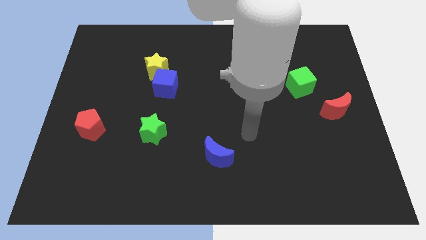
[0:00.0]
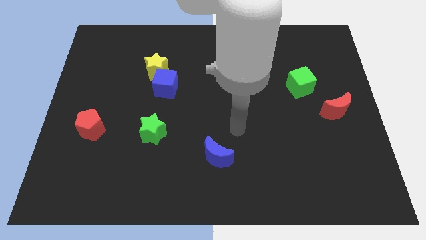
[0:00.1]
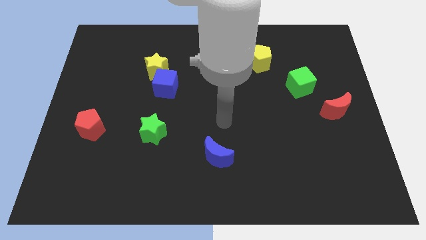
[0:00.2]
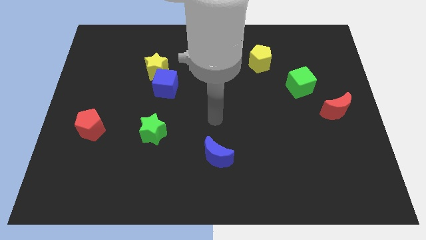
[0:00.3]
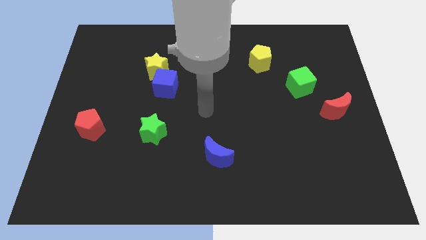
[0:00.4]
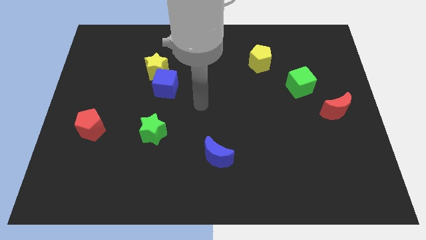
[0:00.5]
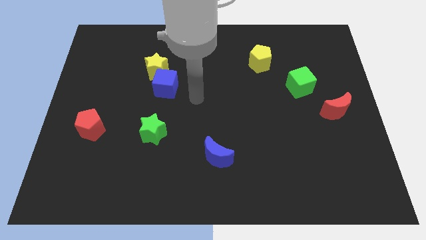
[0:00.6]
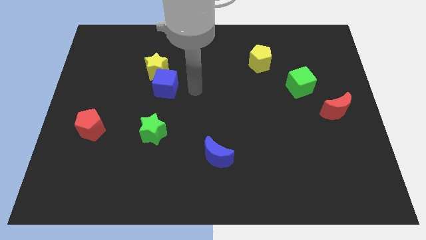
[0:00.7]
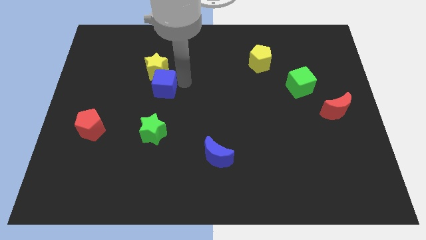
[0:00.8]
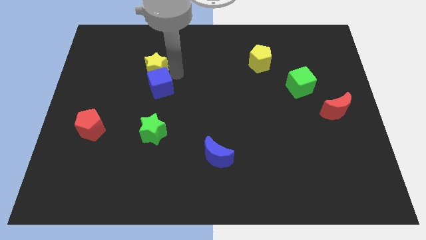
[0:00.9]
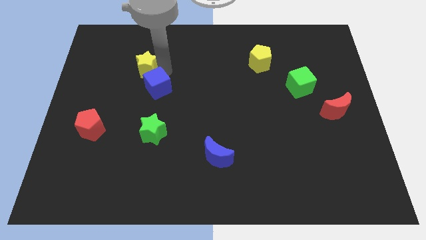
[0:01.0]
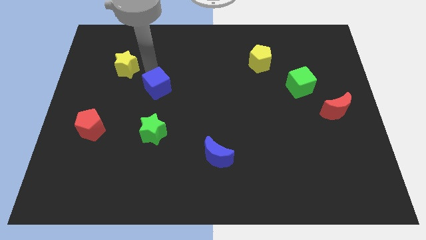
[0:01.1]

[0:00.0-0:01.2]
pull the blue cube apart from the yellow star

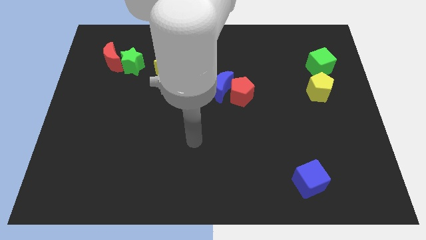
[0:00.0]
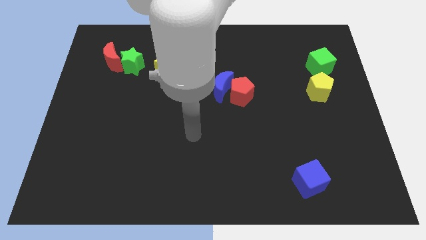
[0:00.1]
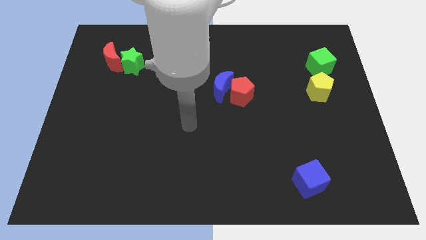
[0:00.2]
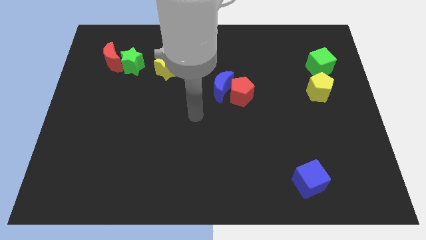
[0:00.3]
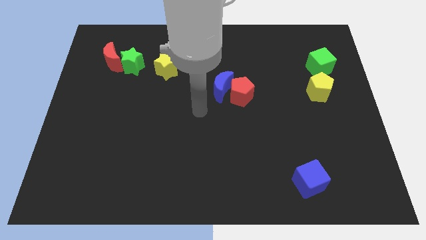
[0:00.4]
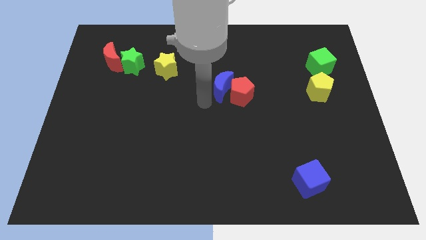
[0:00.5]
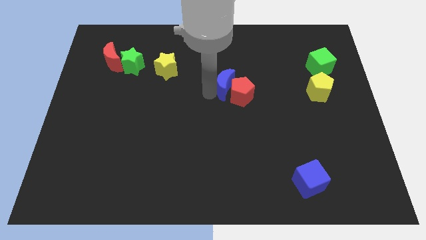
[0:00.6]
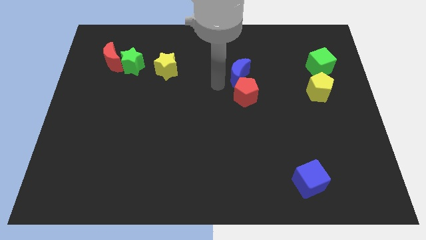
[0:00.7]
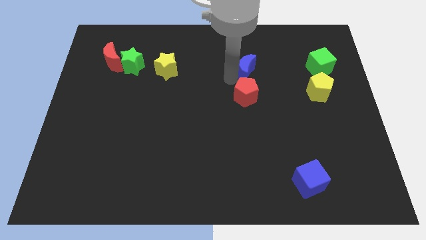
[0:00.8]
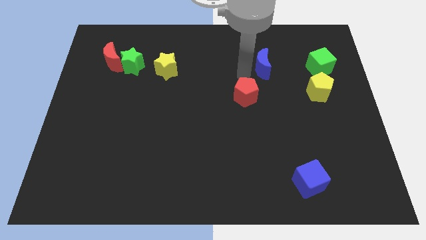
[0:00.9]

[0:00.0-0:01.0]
move the red pentagon away from the blue moon

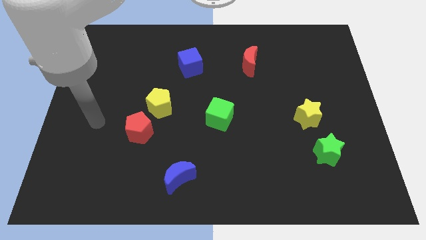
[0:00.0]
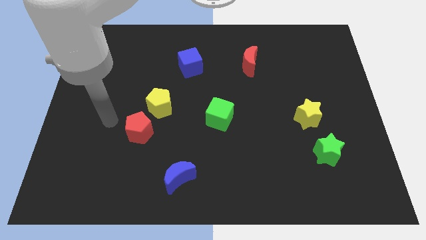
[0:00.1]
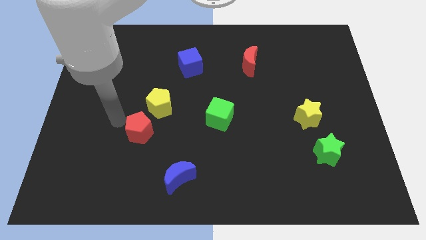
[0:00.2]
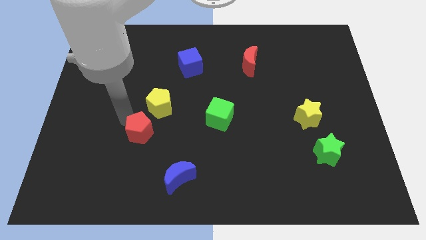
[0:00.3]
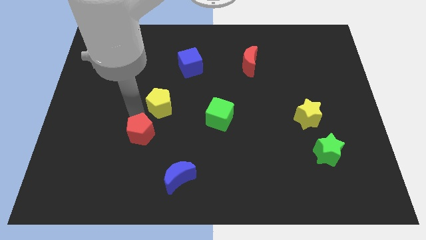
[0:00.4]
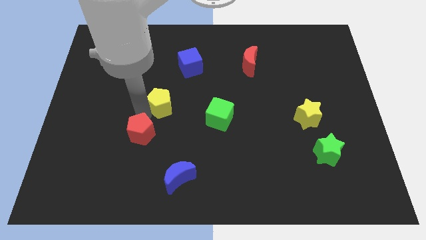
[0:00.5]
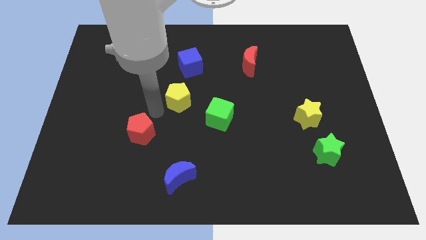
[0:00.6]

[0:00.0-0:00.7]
separate the red pentagon from the yellow pentagon

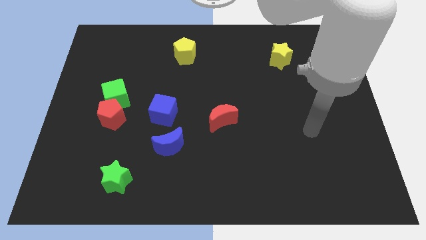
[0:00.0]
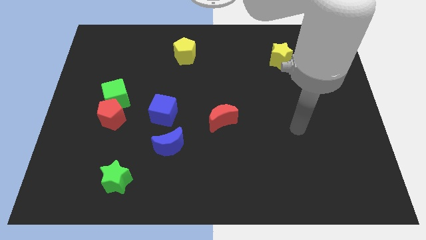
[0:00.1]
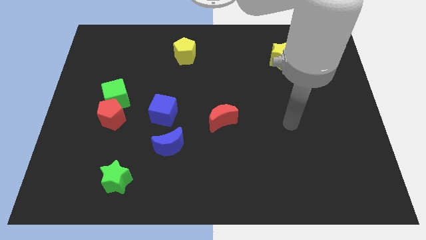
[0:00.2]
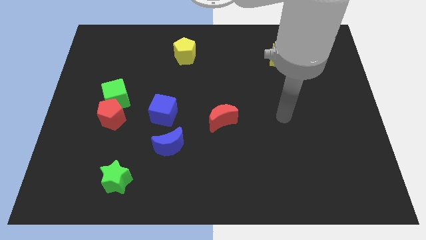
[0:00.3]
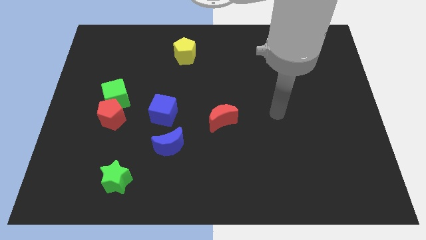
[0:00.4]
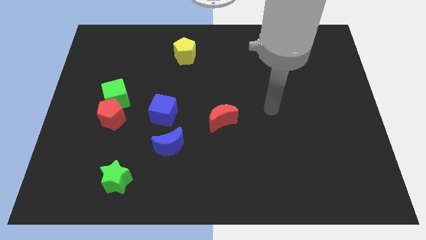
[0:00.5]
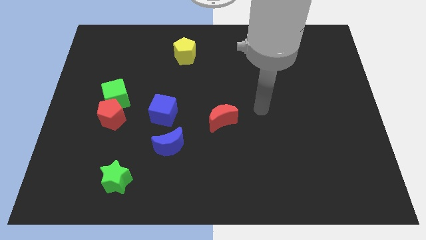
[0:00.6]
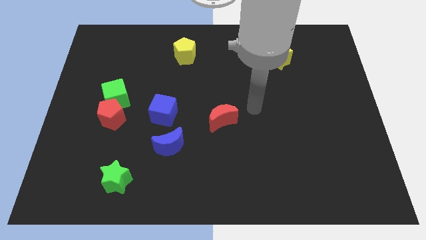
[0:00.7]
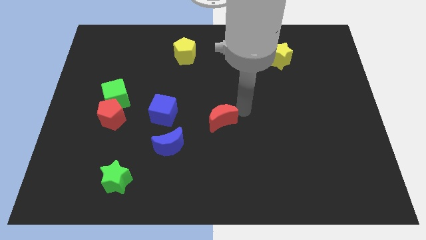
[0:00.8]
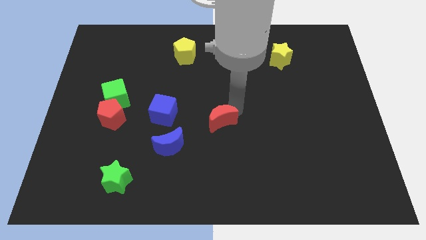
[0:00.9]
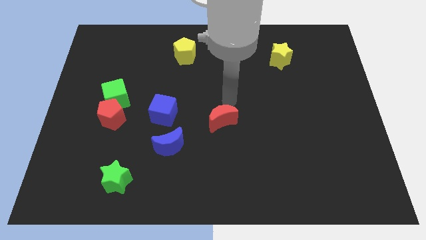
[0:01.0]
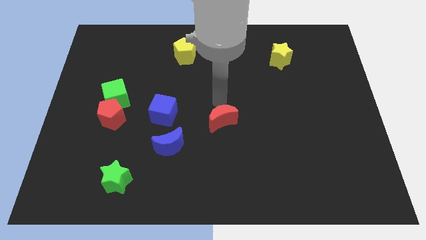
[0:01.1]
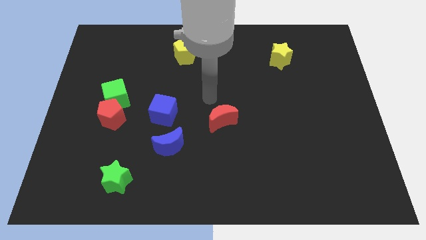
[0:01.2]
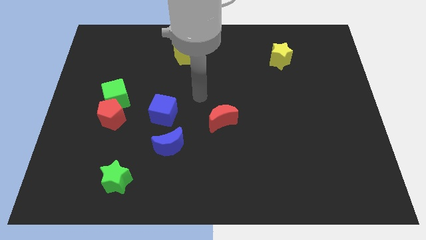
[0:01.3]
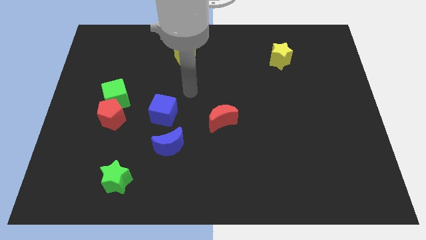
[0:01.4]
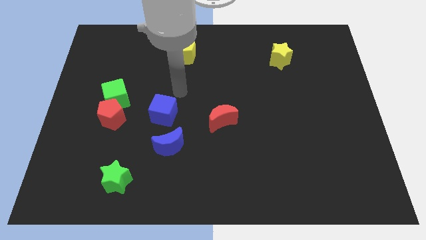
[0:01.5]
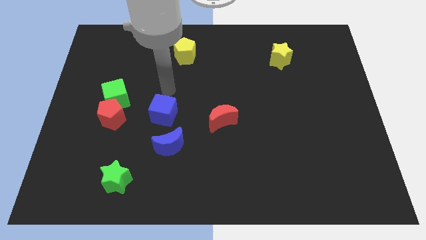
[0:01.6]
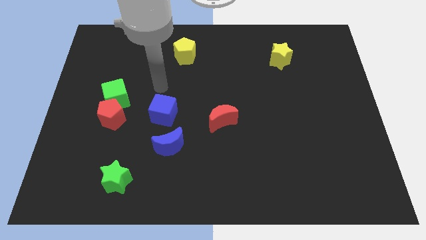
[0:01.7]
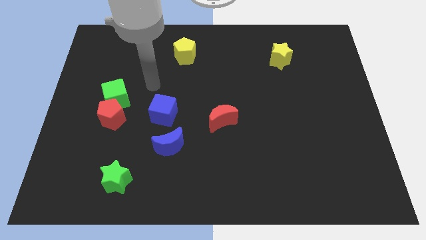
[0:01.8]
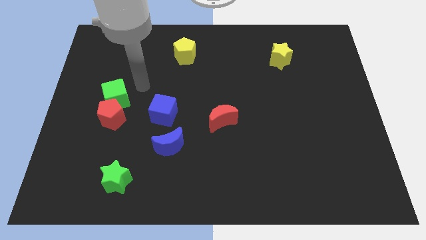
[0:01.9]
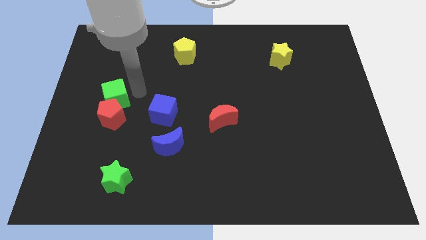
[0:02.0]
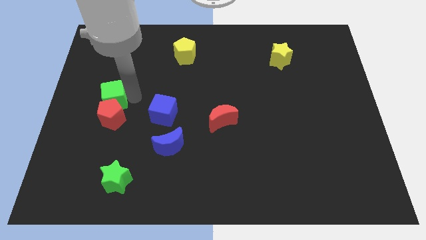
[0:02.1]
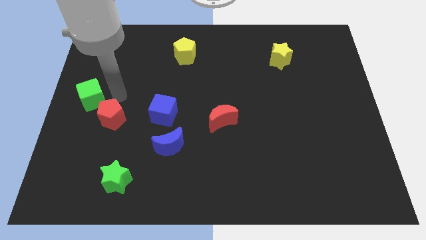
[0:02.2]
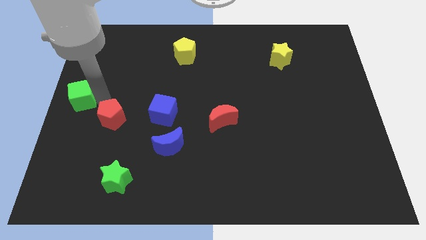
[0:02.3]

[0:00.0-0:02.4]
pull the red pentagon apart from the green cube

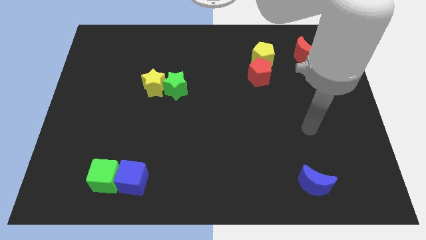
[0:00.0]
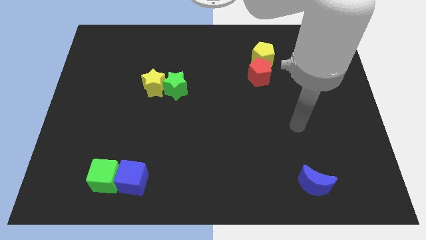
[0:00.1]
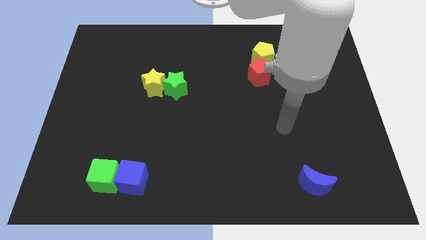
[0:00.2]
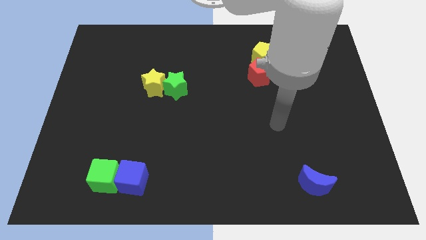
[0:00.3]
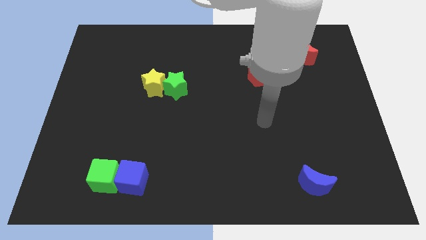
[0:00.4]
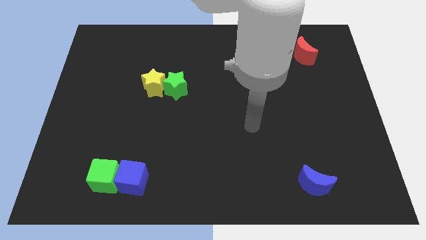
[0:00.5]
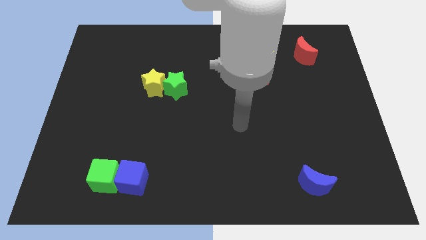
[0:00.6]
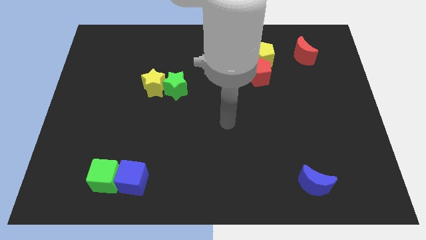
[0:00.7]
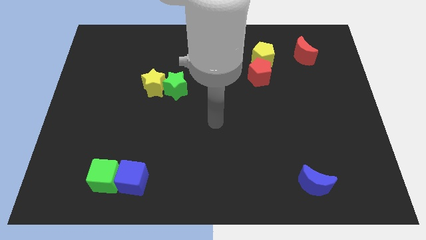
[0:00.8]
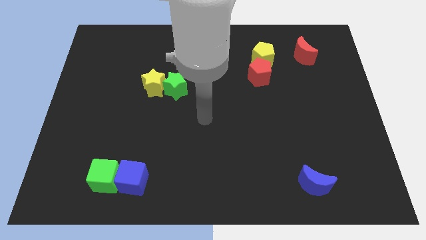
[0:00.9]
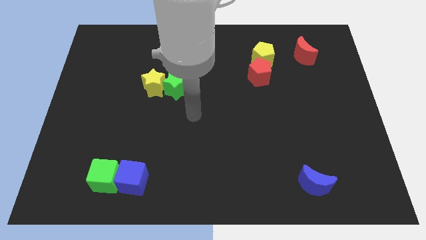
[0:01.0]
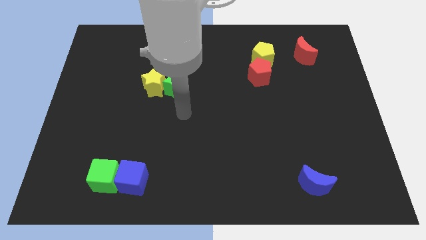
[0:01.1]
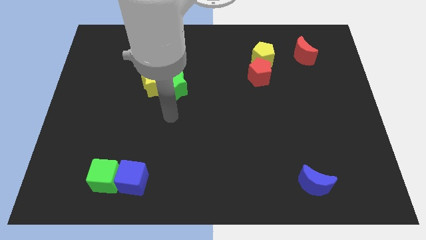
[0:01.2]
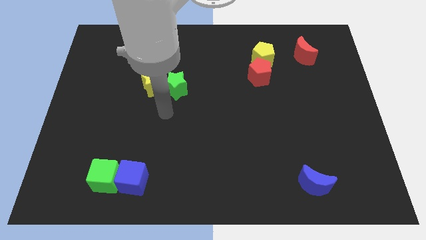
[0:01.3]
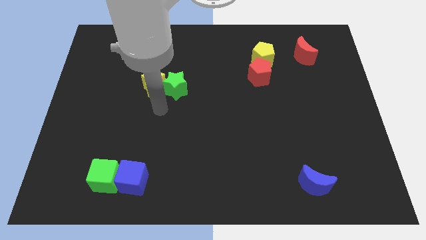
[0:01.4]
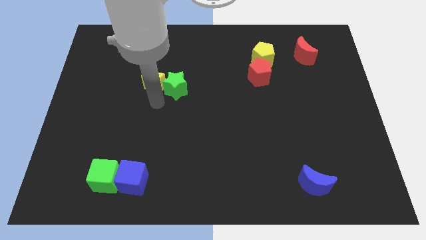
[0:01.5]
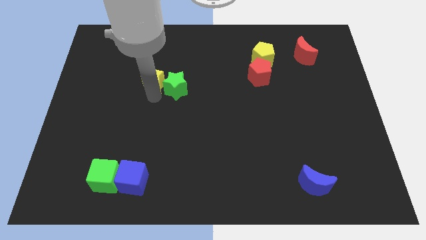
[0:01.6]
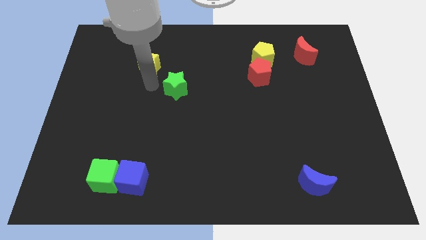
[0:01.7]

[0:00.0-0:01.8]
separate the green star from the yellow star

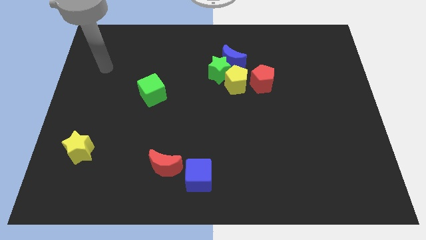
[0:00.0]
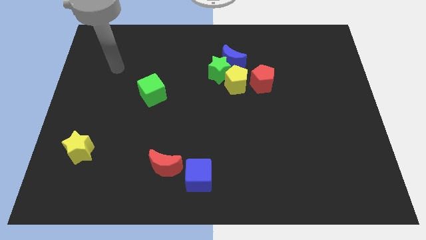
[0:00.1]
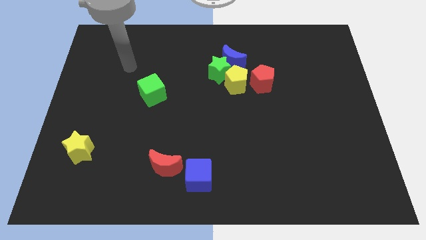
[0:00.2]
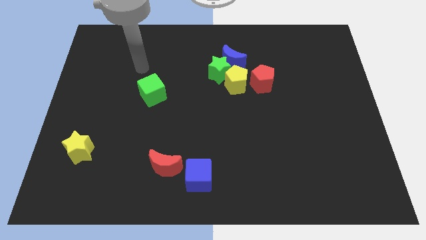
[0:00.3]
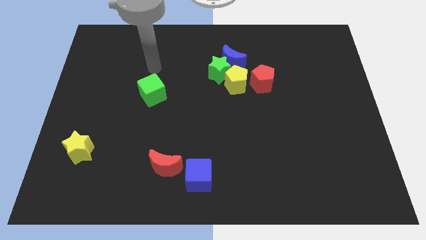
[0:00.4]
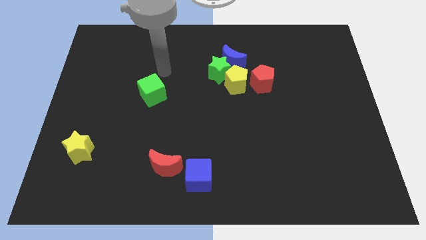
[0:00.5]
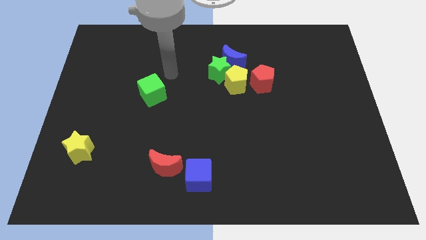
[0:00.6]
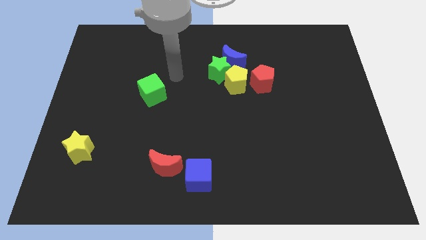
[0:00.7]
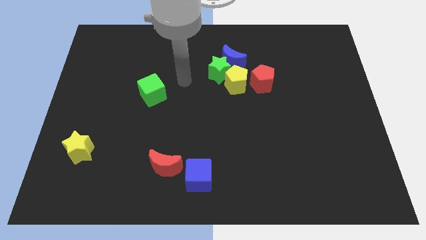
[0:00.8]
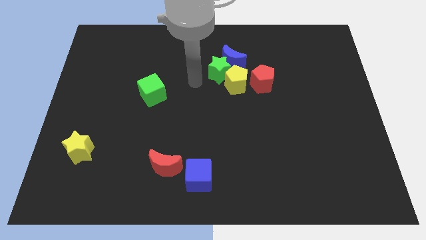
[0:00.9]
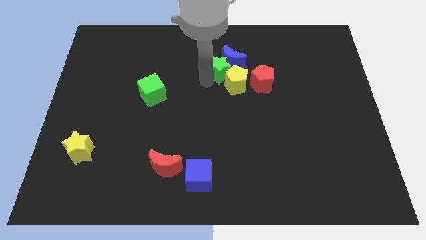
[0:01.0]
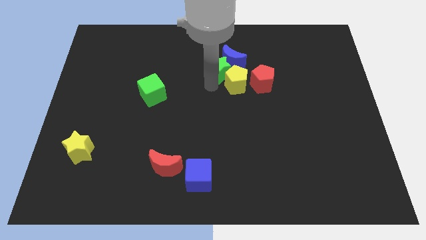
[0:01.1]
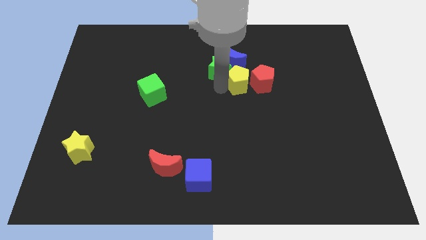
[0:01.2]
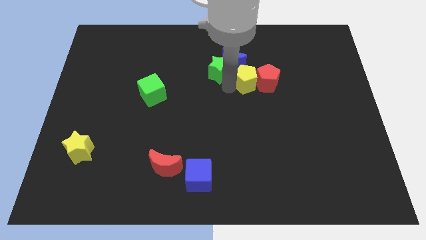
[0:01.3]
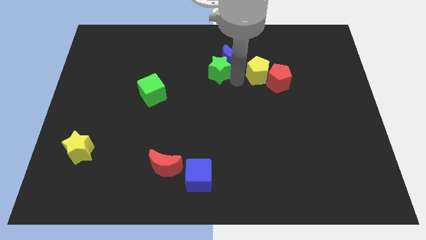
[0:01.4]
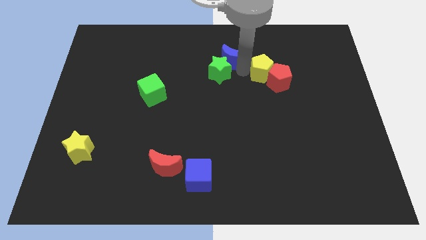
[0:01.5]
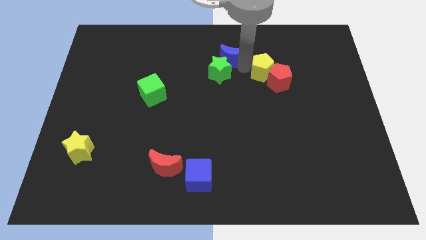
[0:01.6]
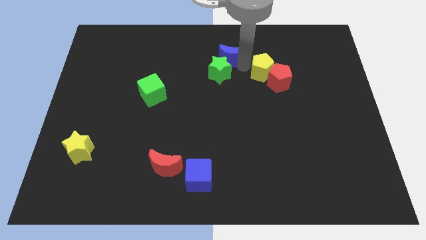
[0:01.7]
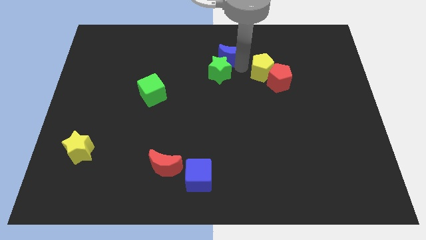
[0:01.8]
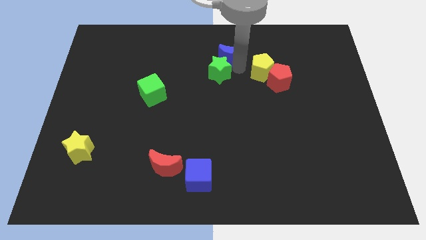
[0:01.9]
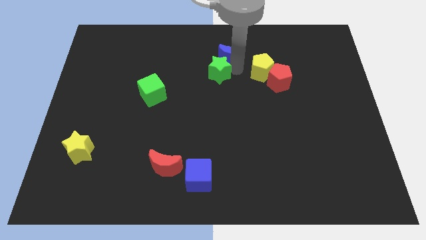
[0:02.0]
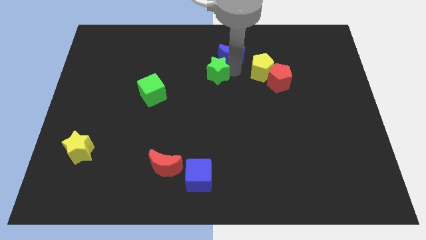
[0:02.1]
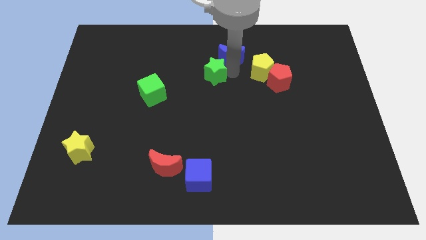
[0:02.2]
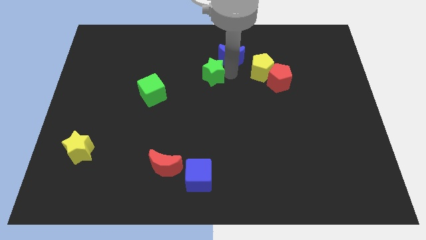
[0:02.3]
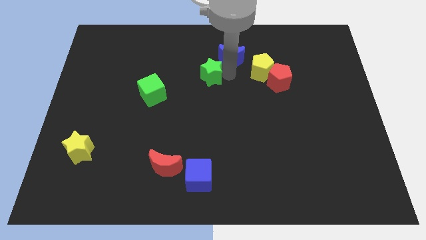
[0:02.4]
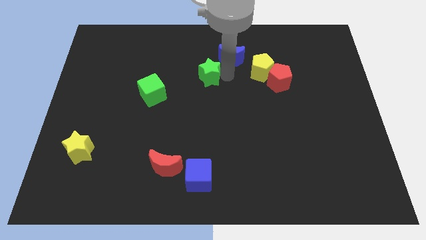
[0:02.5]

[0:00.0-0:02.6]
move the green star away from the blue moon and yellow pentagon
